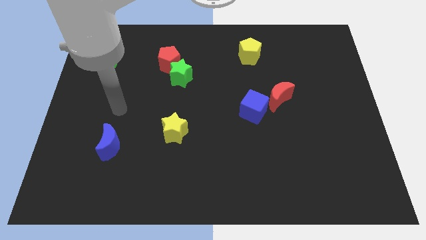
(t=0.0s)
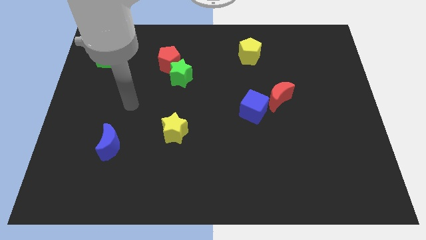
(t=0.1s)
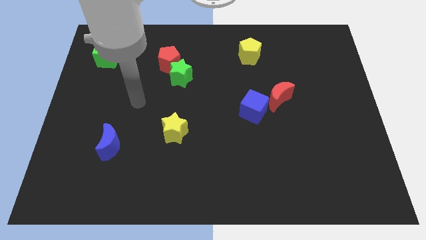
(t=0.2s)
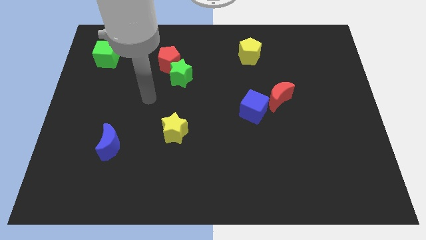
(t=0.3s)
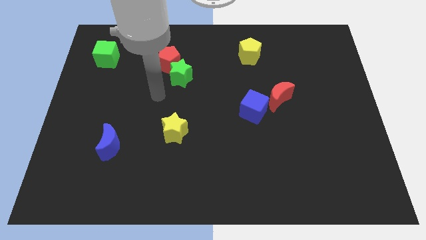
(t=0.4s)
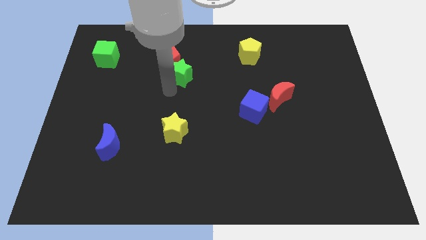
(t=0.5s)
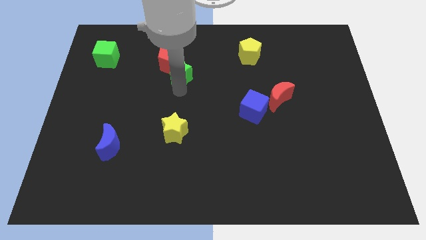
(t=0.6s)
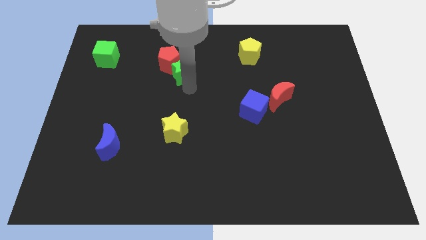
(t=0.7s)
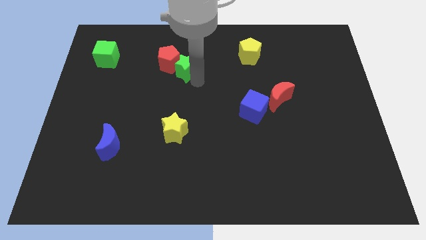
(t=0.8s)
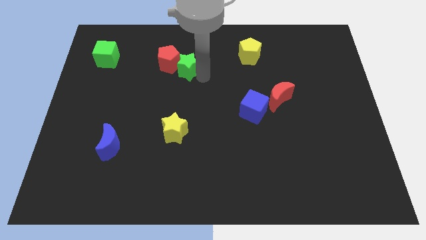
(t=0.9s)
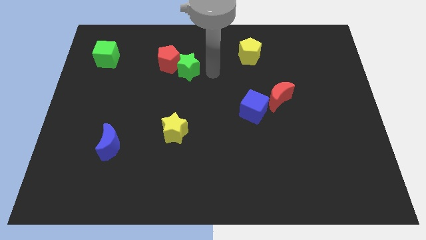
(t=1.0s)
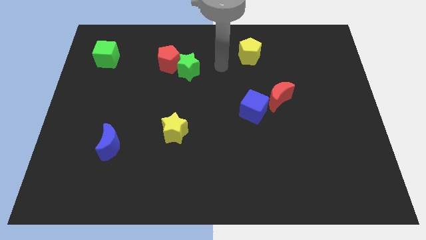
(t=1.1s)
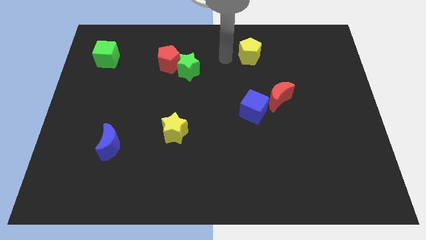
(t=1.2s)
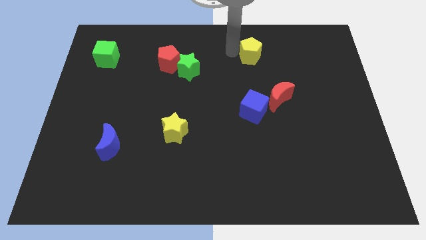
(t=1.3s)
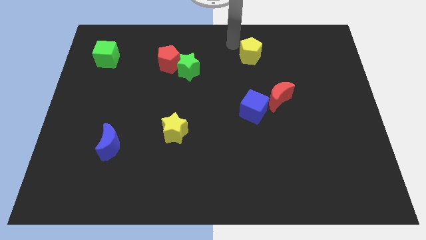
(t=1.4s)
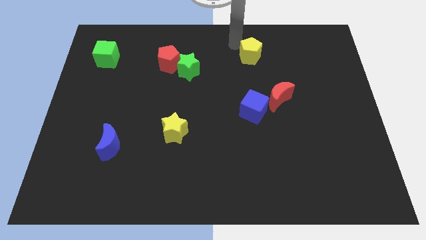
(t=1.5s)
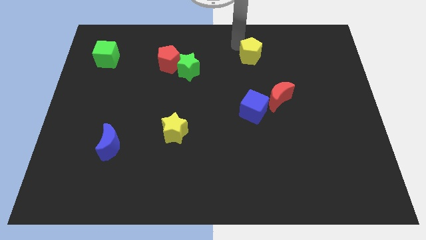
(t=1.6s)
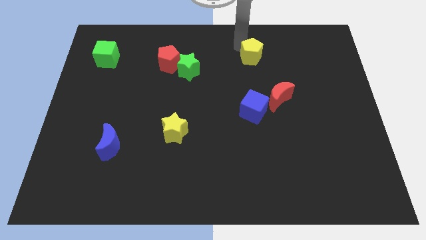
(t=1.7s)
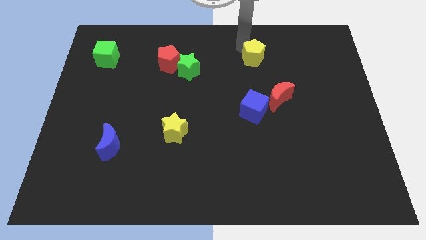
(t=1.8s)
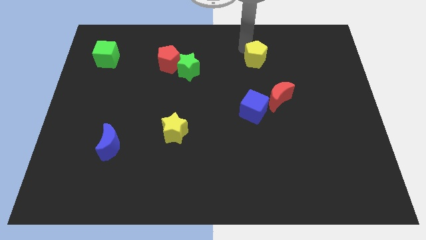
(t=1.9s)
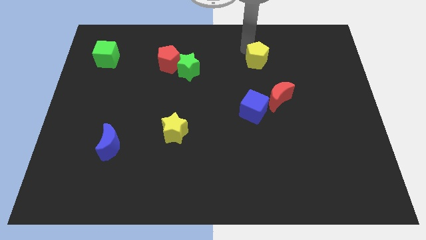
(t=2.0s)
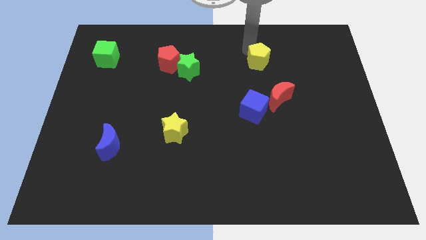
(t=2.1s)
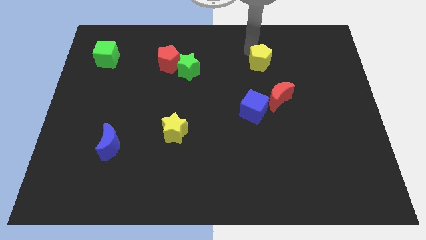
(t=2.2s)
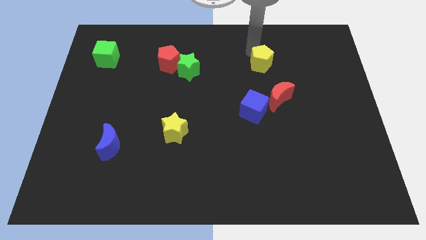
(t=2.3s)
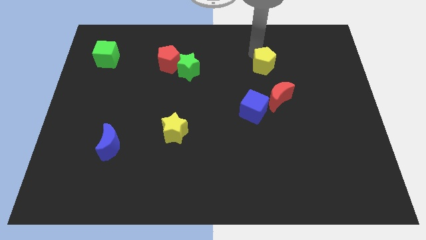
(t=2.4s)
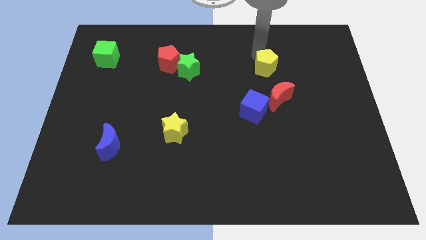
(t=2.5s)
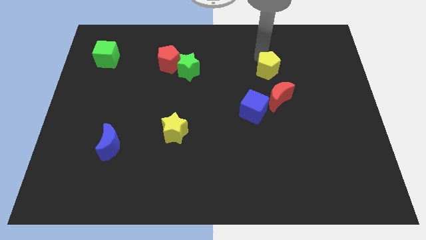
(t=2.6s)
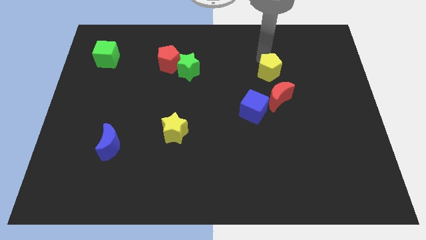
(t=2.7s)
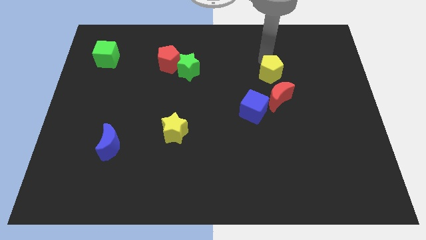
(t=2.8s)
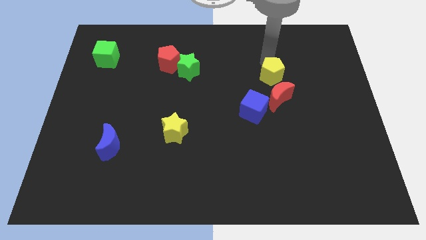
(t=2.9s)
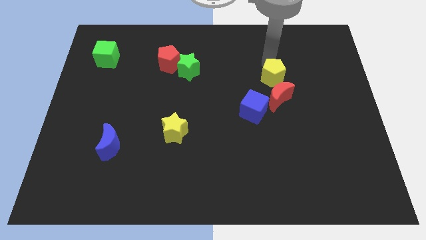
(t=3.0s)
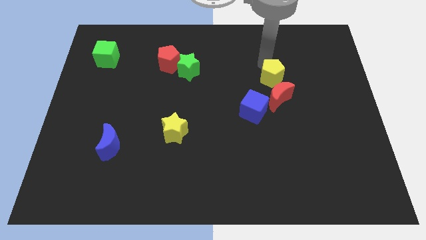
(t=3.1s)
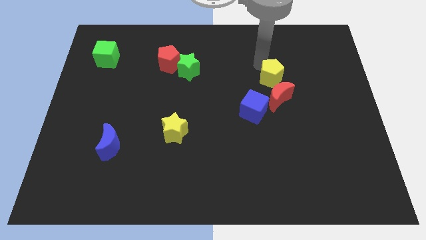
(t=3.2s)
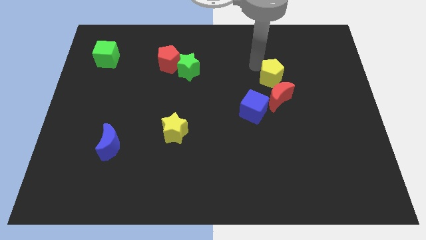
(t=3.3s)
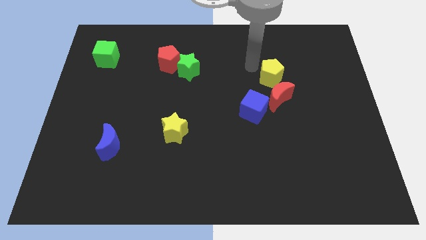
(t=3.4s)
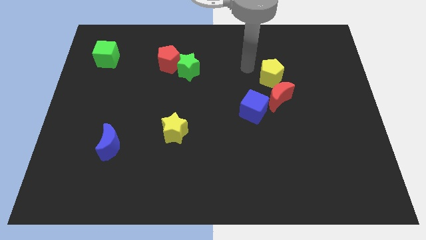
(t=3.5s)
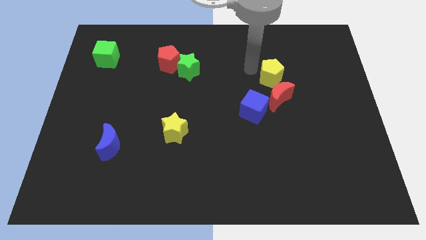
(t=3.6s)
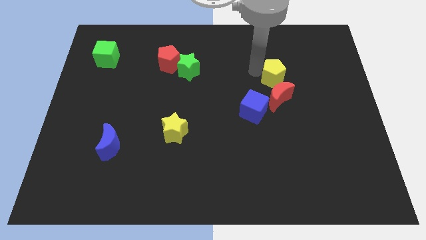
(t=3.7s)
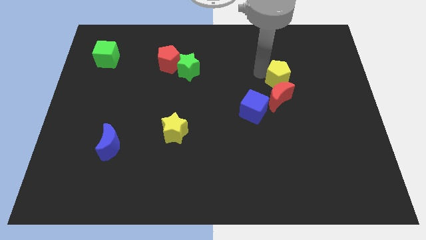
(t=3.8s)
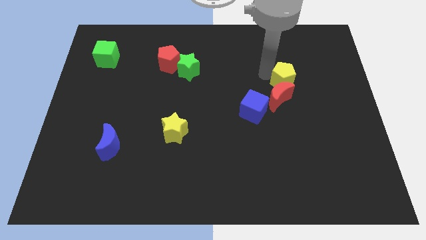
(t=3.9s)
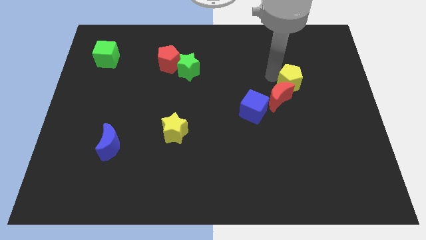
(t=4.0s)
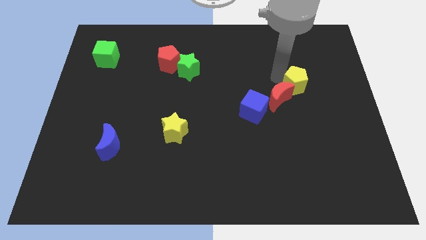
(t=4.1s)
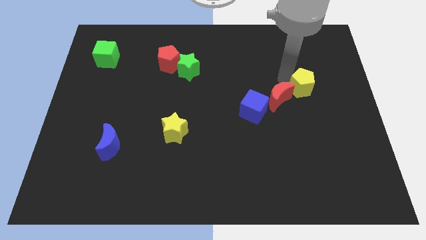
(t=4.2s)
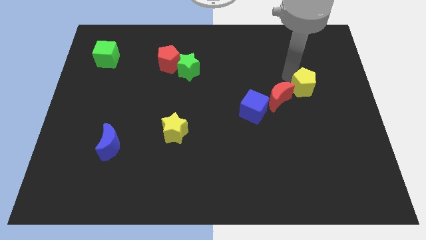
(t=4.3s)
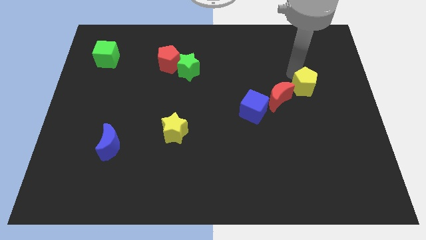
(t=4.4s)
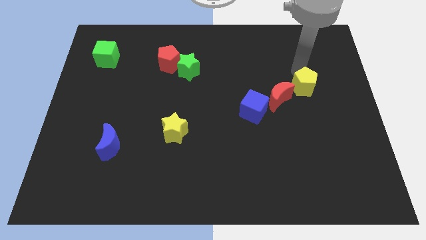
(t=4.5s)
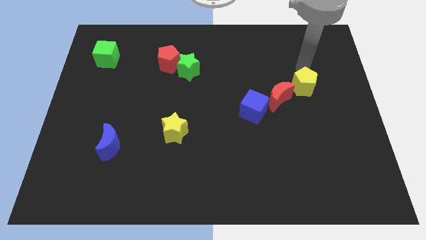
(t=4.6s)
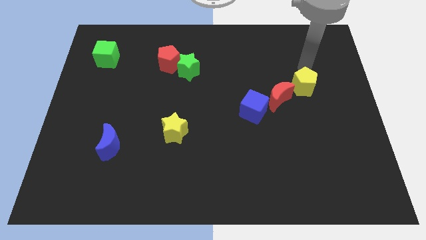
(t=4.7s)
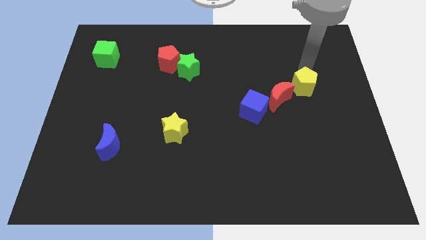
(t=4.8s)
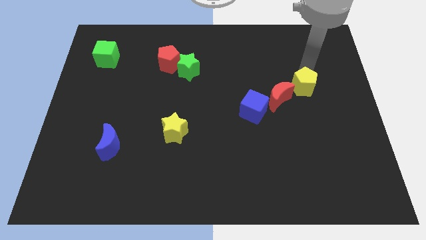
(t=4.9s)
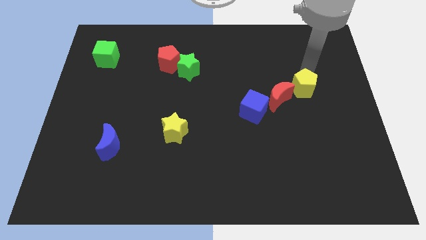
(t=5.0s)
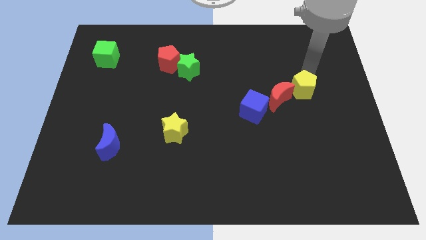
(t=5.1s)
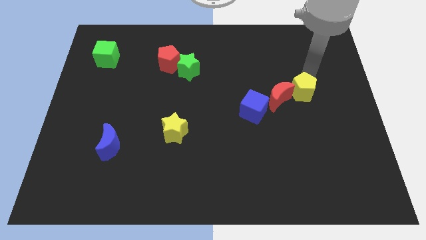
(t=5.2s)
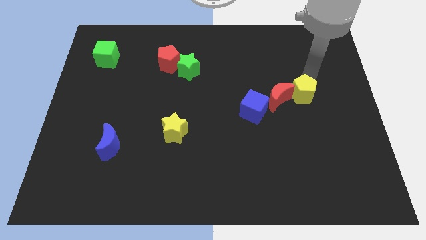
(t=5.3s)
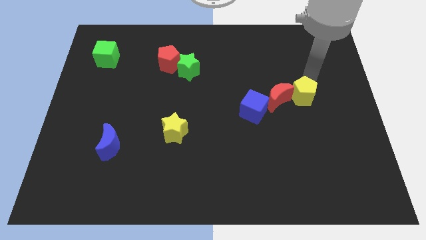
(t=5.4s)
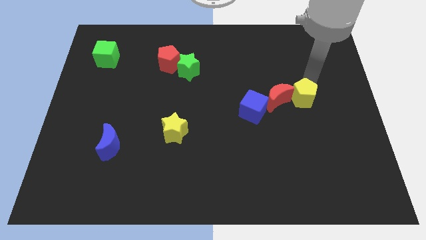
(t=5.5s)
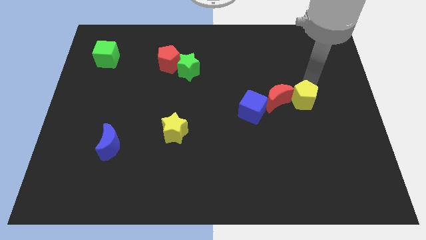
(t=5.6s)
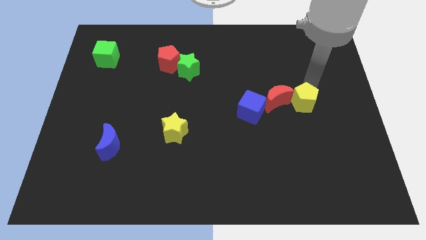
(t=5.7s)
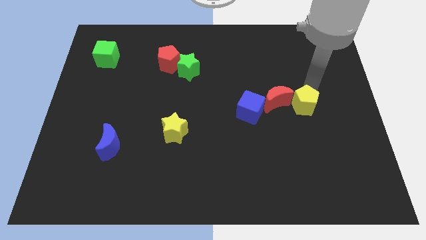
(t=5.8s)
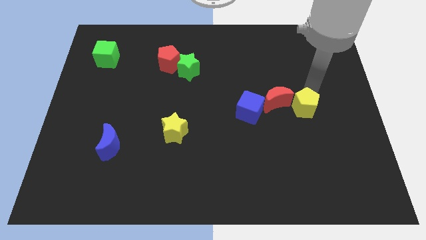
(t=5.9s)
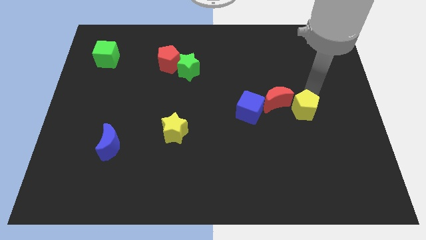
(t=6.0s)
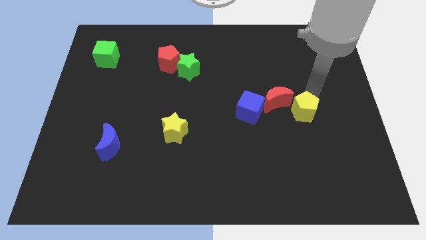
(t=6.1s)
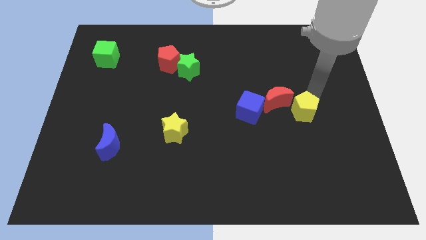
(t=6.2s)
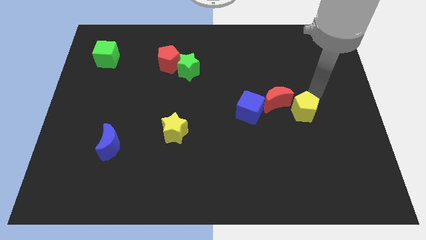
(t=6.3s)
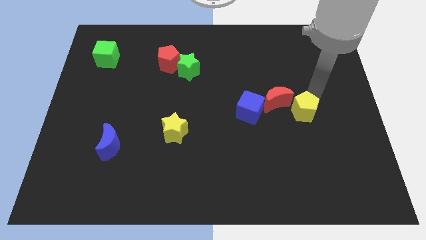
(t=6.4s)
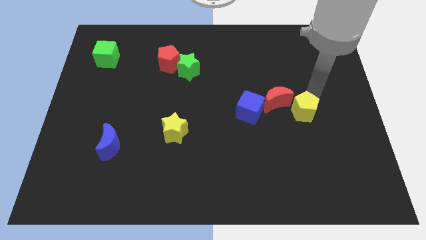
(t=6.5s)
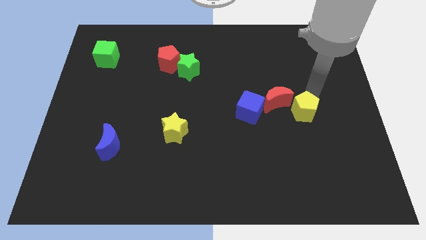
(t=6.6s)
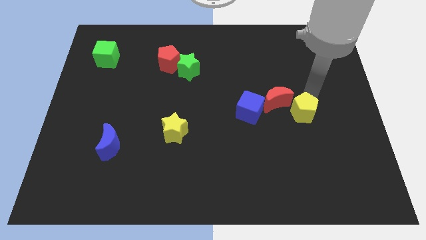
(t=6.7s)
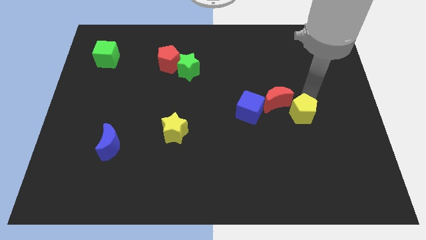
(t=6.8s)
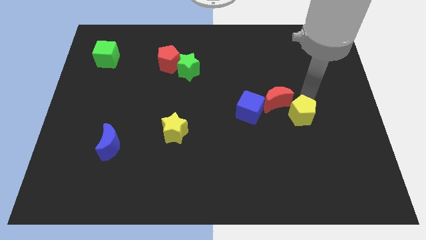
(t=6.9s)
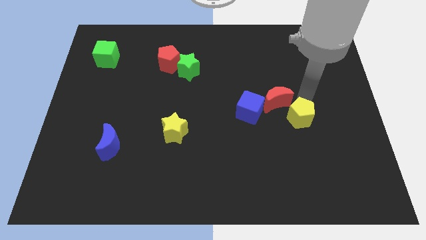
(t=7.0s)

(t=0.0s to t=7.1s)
slide the yellow pentagon to the bottom of the red moon

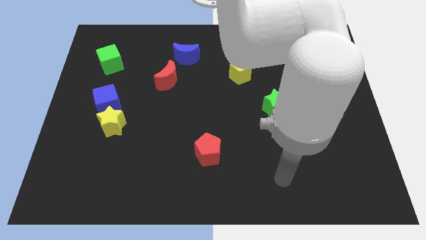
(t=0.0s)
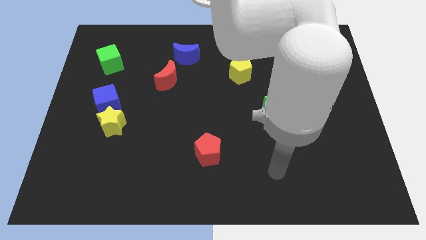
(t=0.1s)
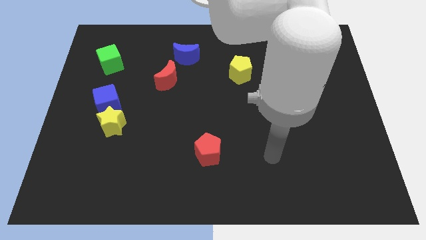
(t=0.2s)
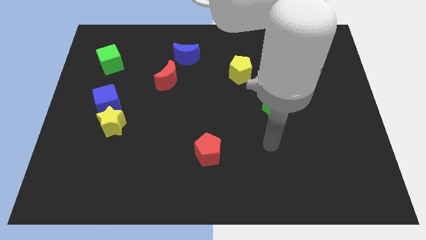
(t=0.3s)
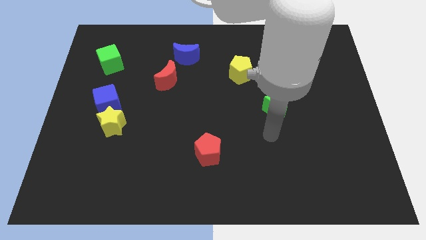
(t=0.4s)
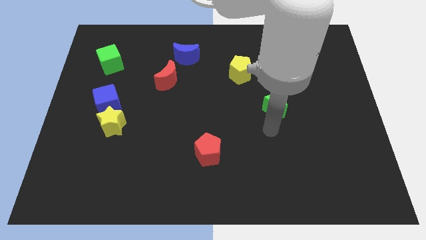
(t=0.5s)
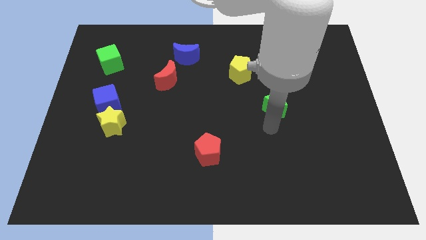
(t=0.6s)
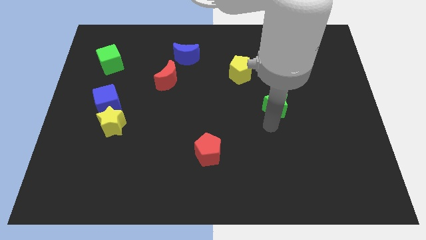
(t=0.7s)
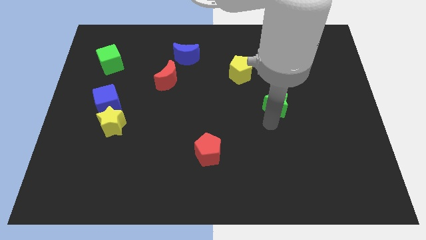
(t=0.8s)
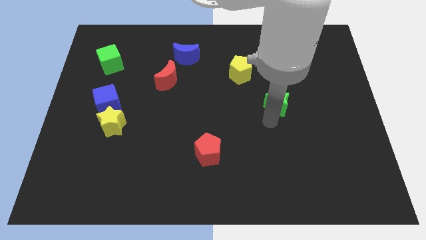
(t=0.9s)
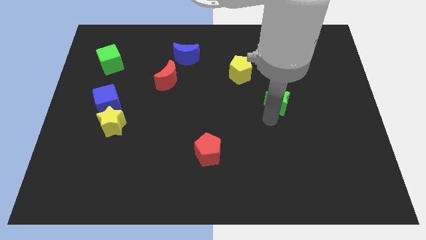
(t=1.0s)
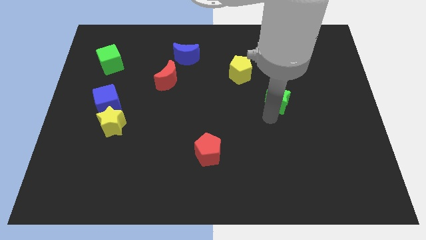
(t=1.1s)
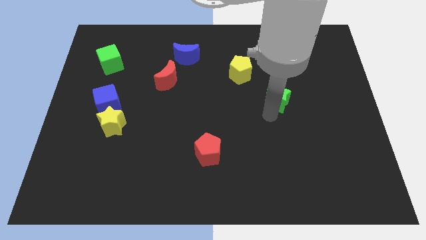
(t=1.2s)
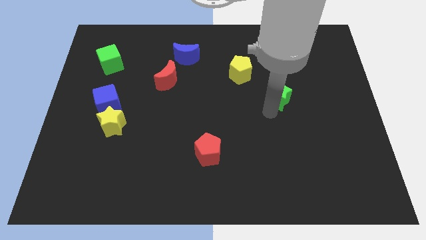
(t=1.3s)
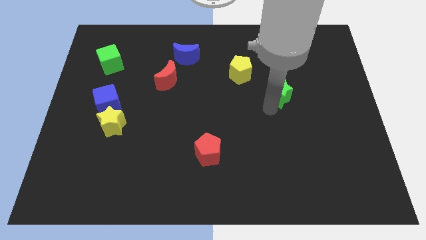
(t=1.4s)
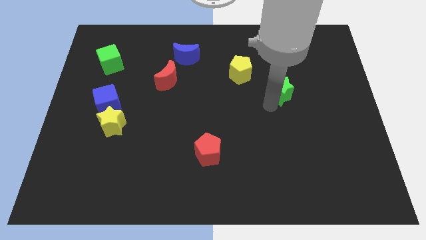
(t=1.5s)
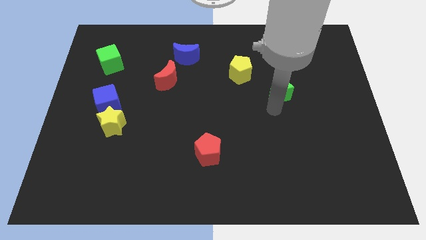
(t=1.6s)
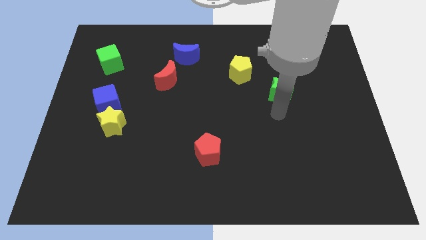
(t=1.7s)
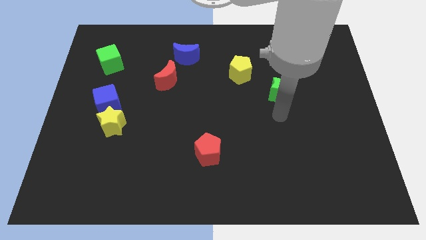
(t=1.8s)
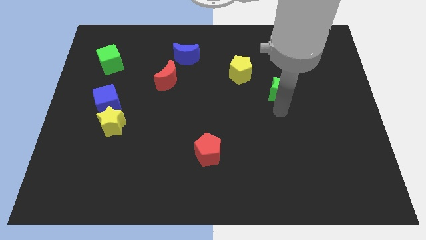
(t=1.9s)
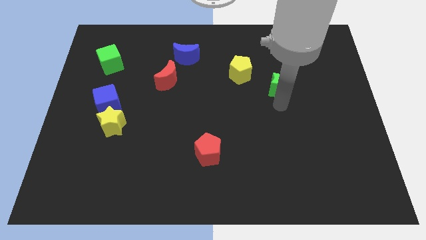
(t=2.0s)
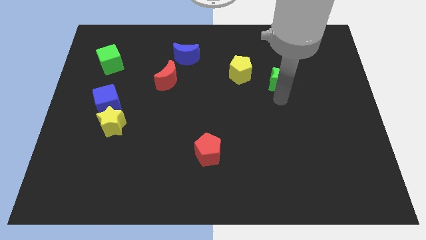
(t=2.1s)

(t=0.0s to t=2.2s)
move the green star to the right of the yellow pentagon
